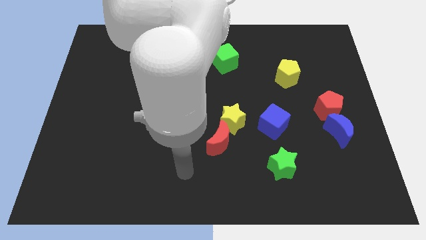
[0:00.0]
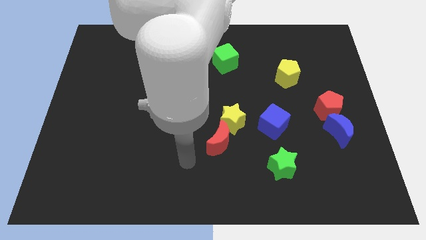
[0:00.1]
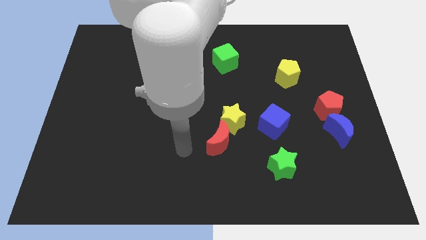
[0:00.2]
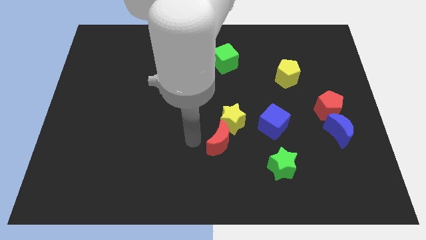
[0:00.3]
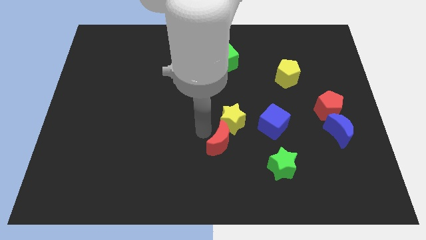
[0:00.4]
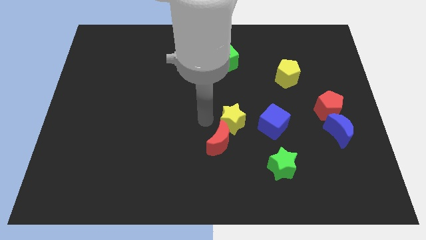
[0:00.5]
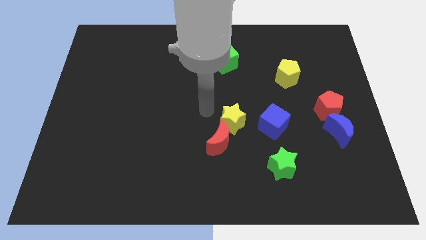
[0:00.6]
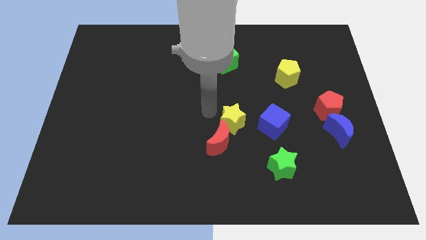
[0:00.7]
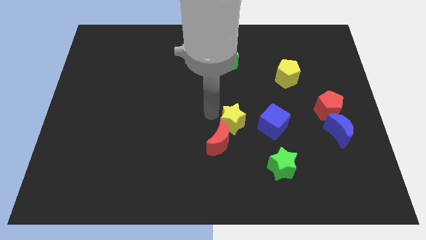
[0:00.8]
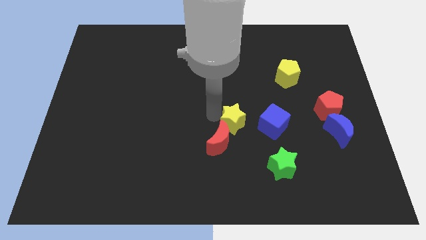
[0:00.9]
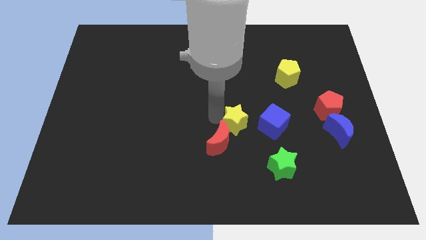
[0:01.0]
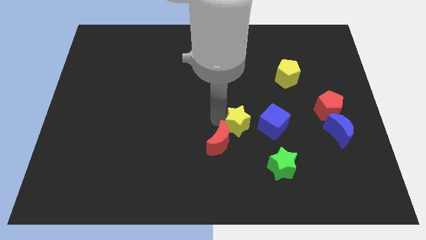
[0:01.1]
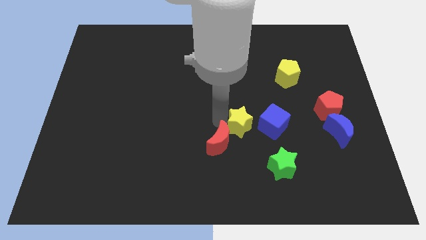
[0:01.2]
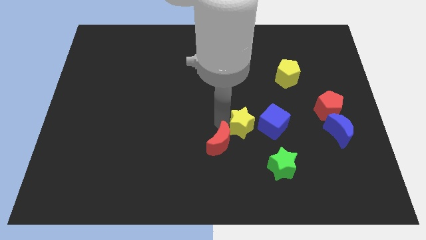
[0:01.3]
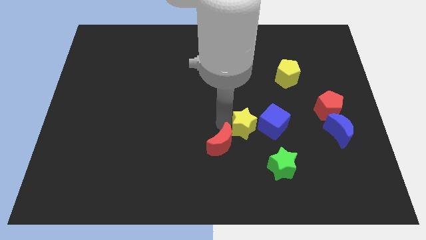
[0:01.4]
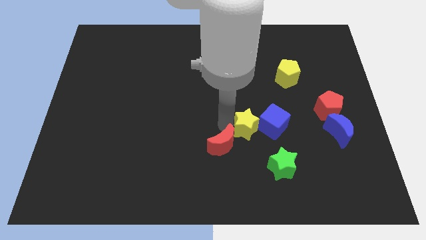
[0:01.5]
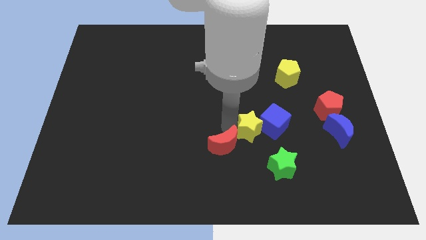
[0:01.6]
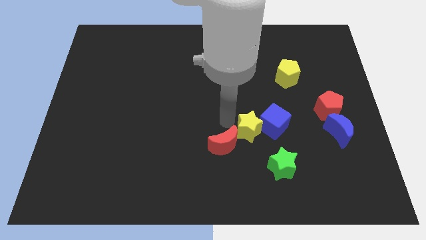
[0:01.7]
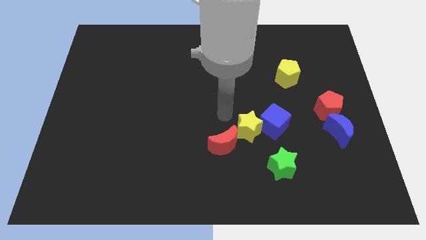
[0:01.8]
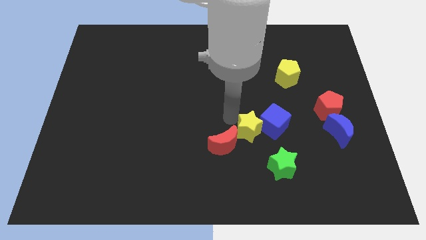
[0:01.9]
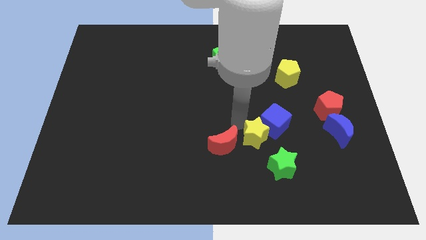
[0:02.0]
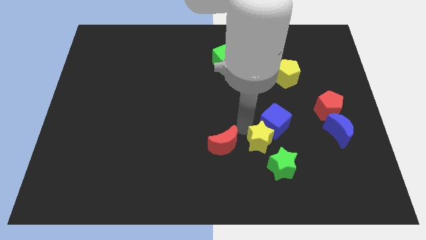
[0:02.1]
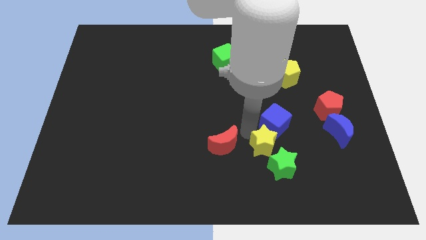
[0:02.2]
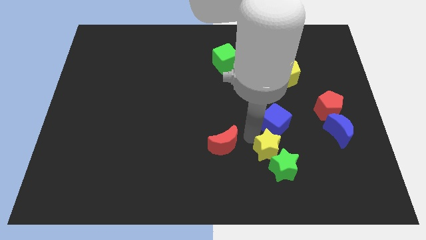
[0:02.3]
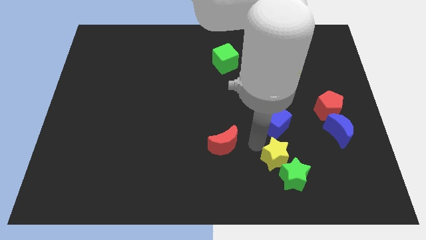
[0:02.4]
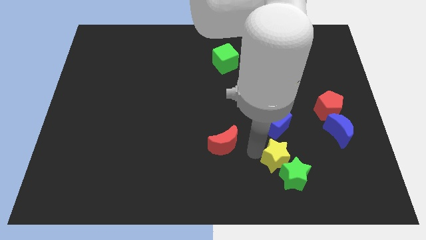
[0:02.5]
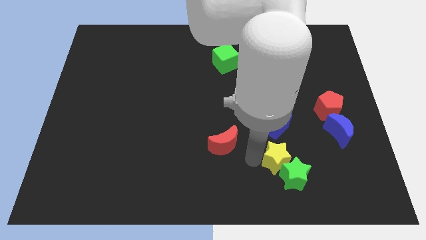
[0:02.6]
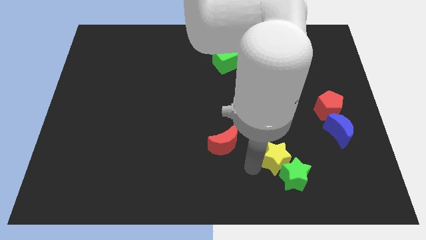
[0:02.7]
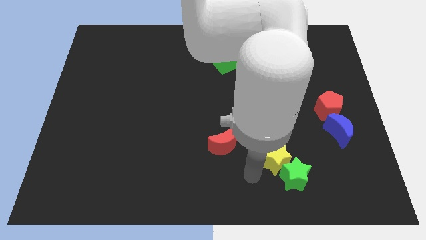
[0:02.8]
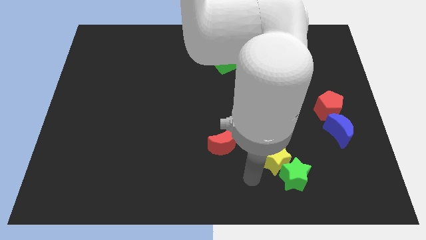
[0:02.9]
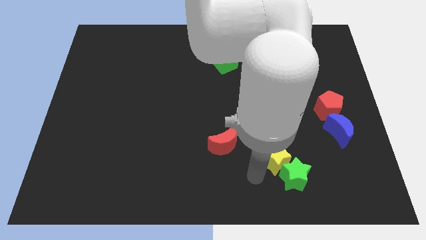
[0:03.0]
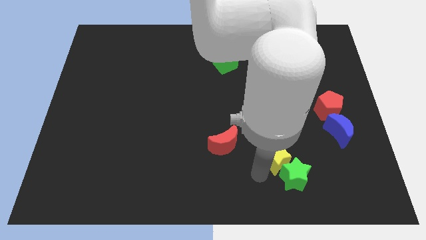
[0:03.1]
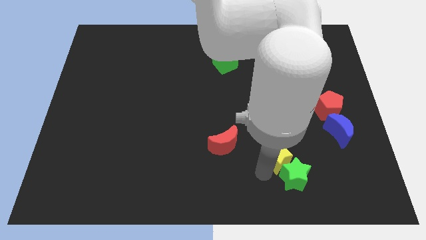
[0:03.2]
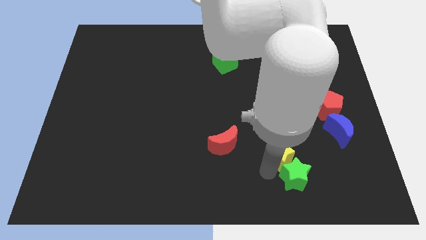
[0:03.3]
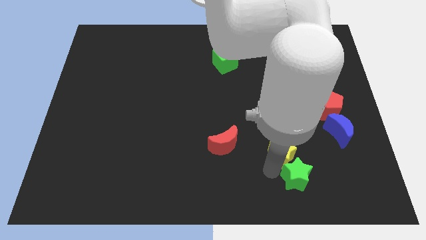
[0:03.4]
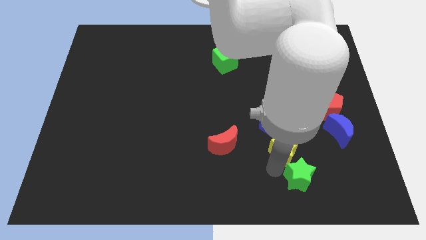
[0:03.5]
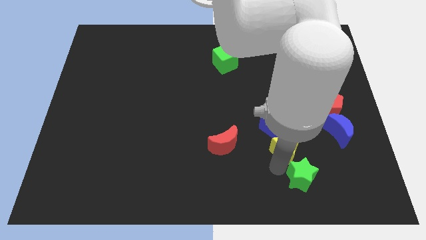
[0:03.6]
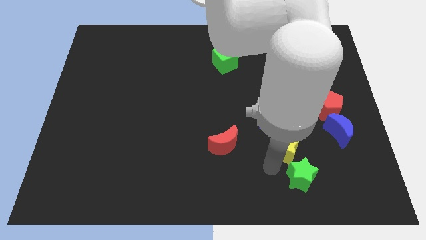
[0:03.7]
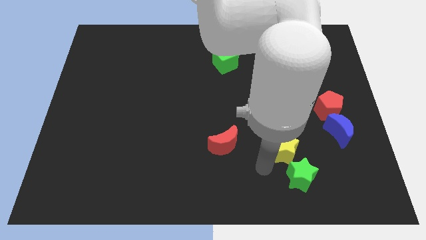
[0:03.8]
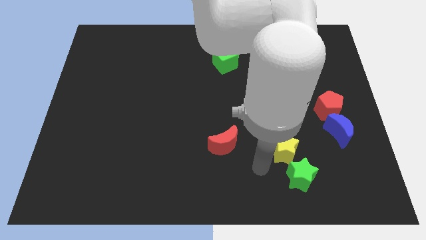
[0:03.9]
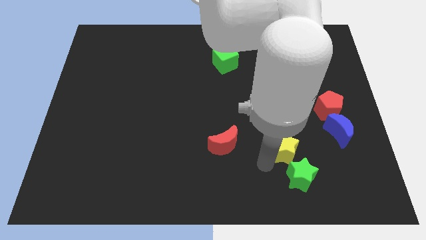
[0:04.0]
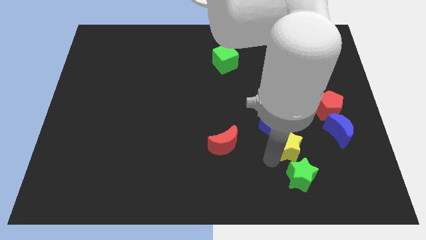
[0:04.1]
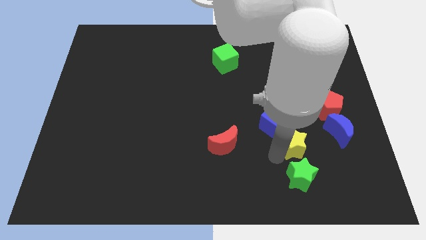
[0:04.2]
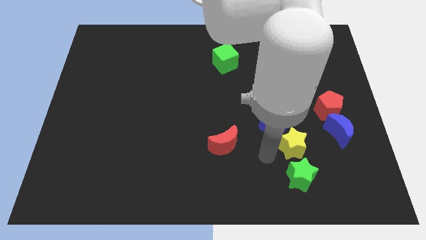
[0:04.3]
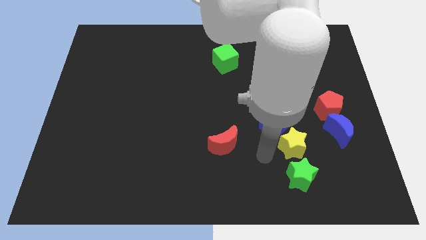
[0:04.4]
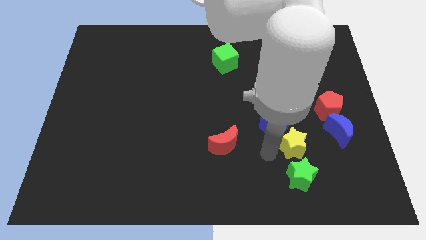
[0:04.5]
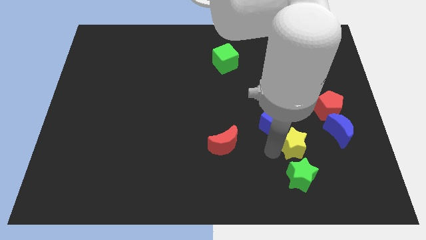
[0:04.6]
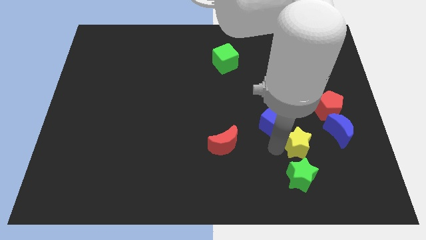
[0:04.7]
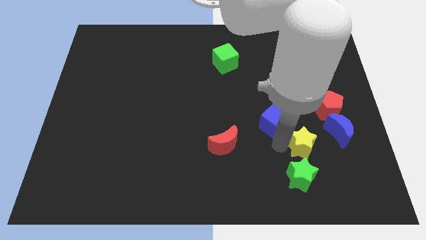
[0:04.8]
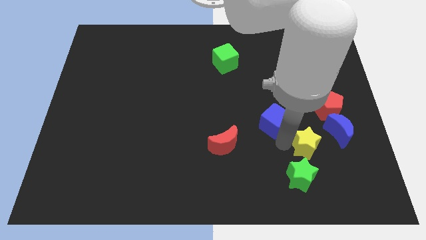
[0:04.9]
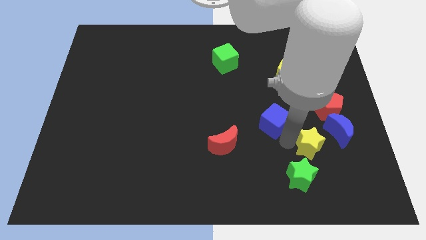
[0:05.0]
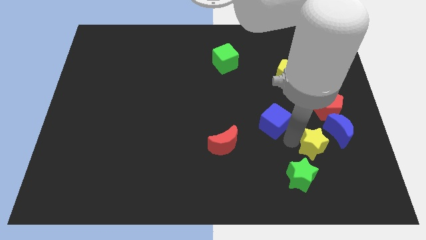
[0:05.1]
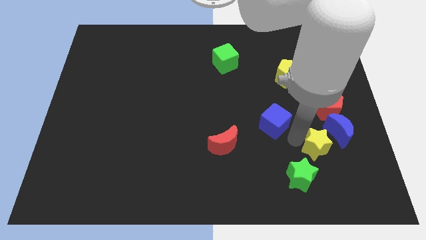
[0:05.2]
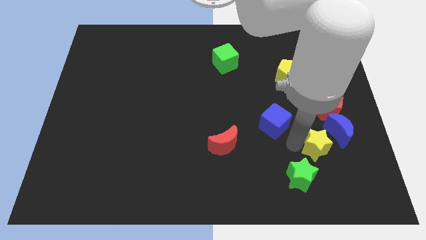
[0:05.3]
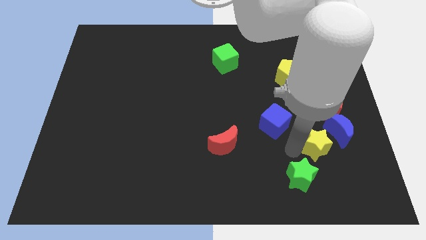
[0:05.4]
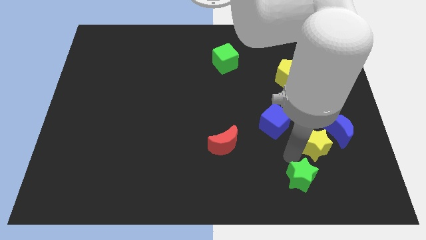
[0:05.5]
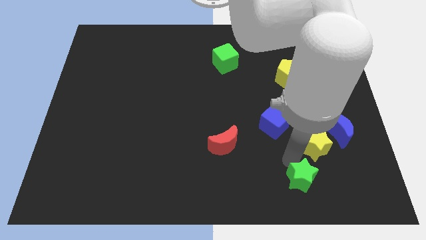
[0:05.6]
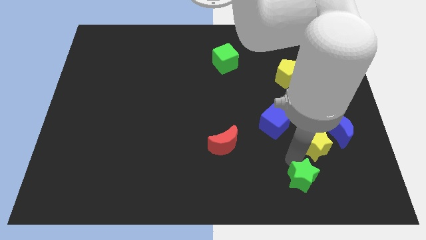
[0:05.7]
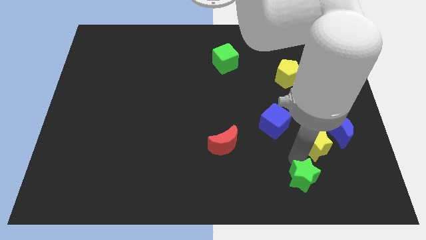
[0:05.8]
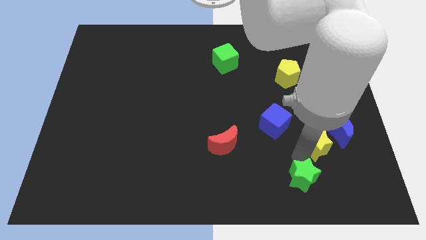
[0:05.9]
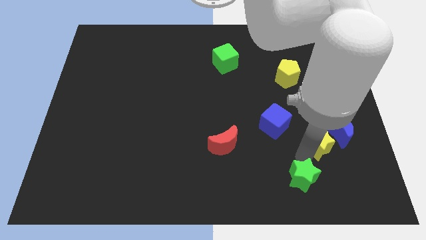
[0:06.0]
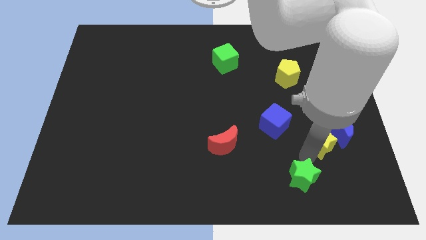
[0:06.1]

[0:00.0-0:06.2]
push the yellow star next to the blue moon

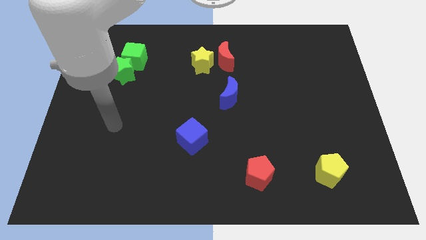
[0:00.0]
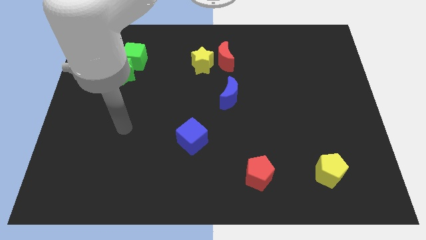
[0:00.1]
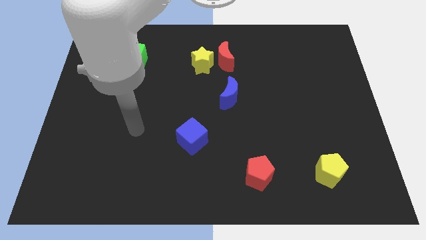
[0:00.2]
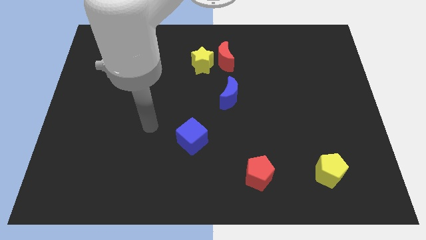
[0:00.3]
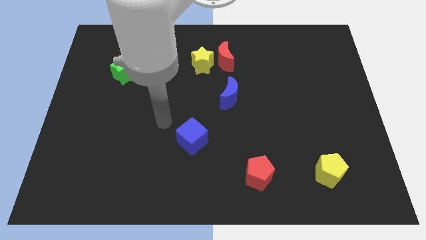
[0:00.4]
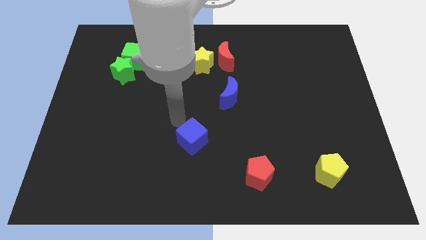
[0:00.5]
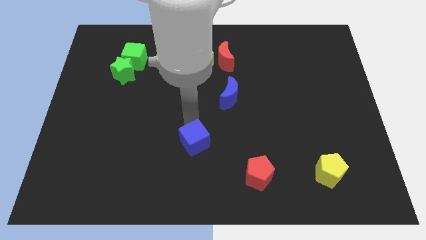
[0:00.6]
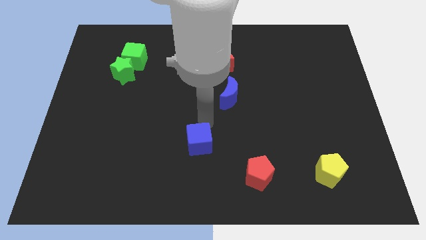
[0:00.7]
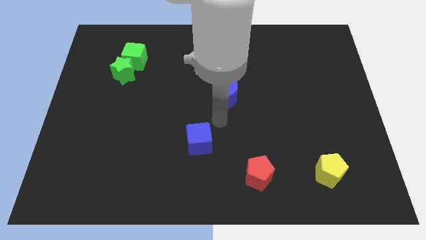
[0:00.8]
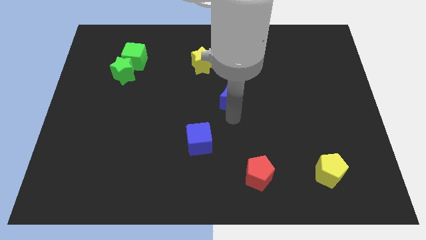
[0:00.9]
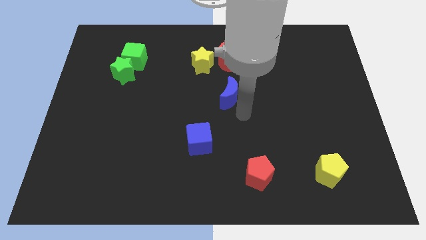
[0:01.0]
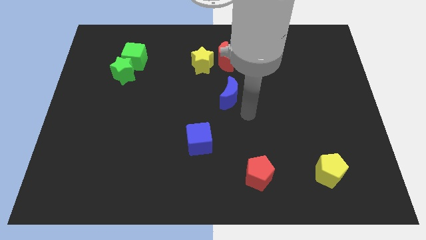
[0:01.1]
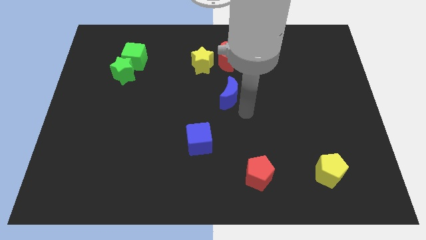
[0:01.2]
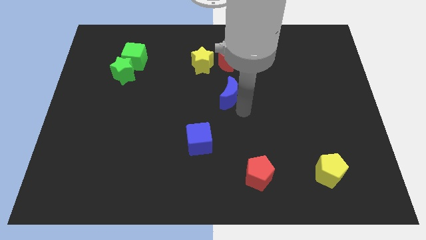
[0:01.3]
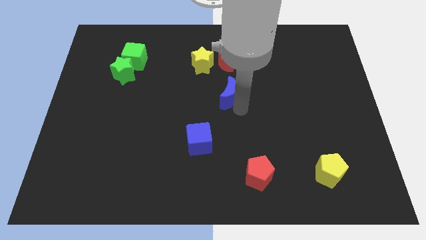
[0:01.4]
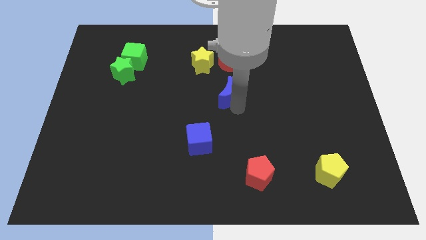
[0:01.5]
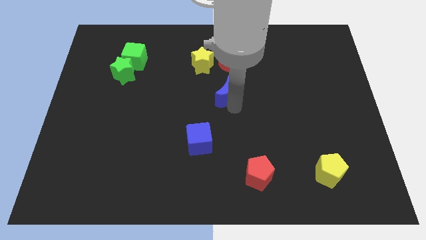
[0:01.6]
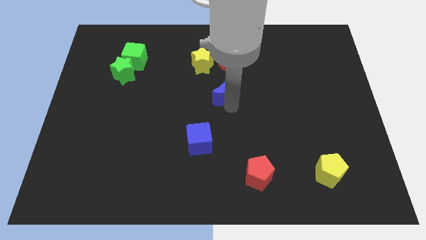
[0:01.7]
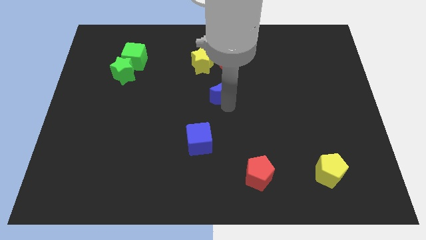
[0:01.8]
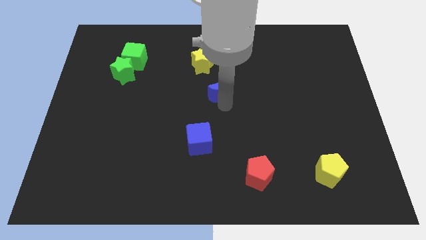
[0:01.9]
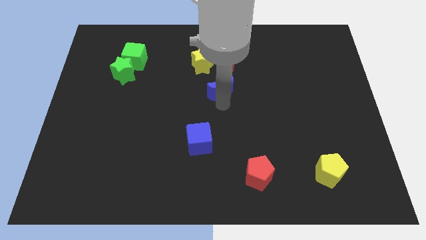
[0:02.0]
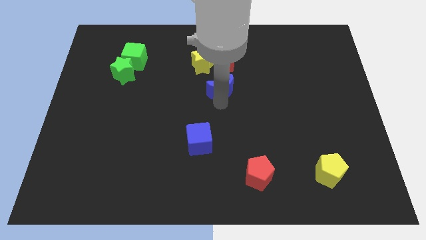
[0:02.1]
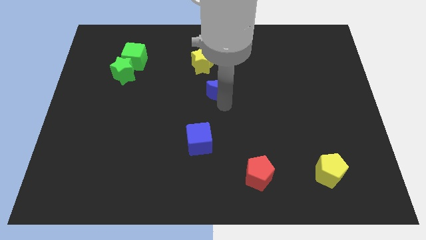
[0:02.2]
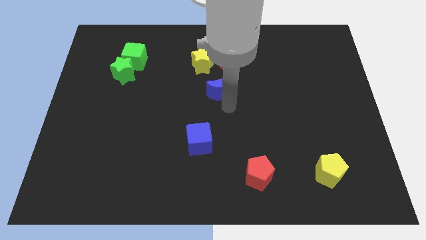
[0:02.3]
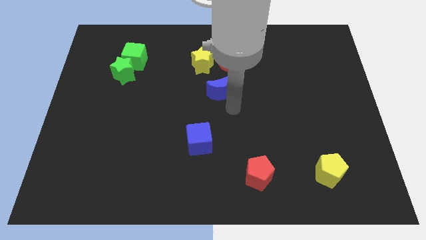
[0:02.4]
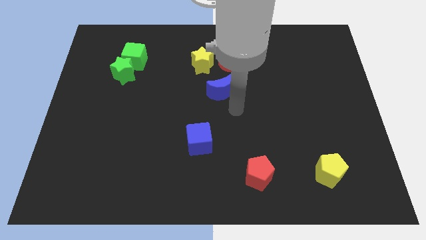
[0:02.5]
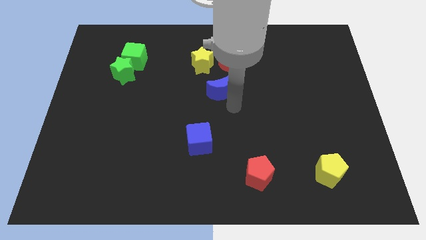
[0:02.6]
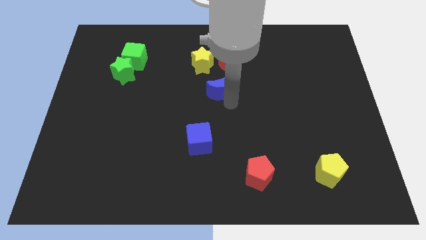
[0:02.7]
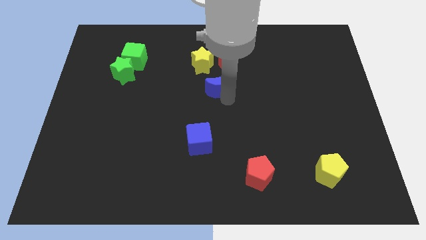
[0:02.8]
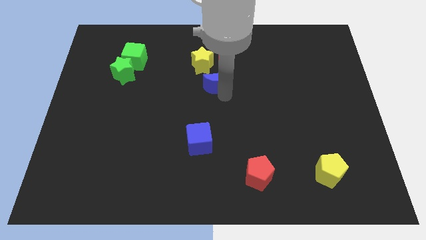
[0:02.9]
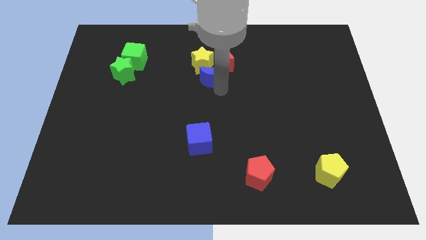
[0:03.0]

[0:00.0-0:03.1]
push the blue moon next to the yellow star
